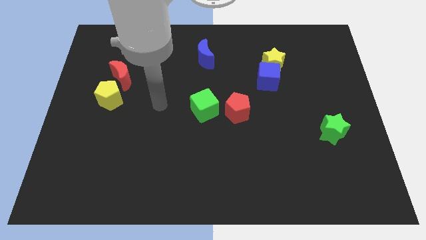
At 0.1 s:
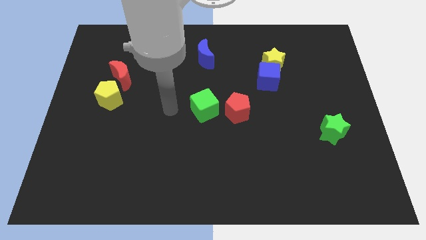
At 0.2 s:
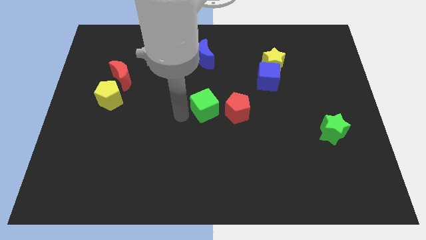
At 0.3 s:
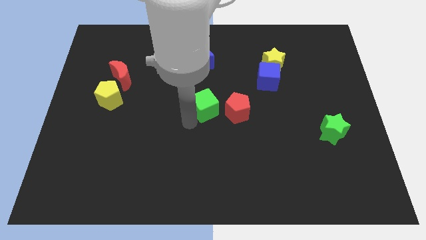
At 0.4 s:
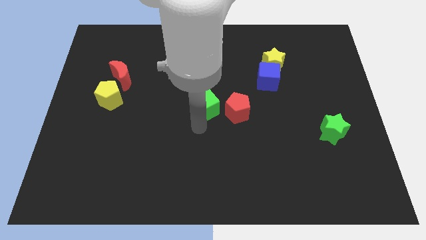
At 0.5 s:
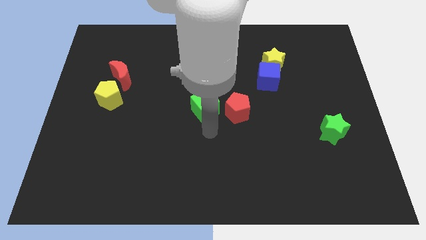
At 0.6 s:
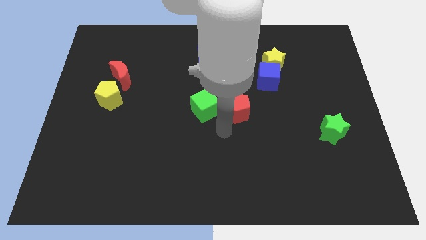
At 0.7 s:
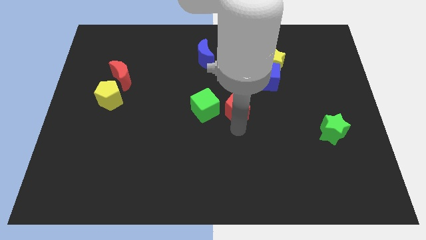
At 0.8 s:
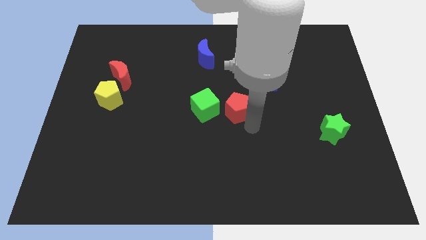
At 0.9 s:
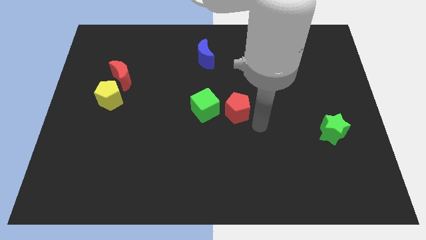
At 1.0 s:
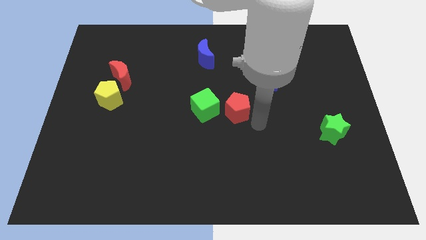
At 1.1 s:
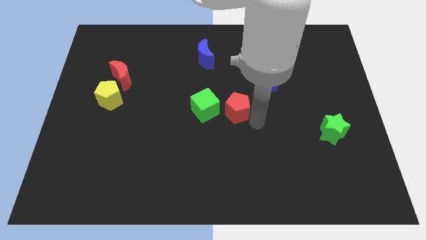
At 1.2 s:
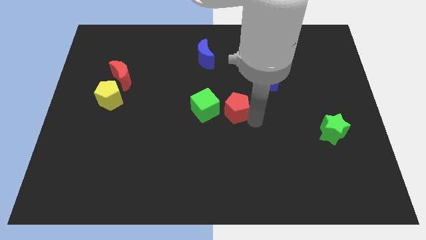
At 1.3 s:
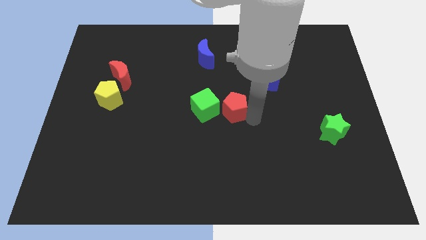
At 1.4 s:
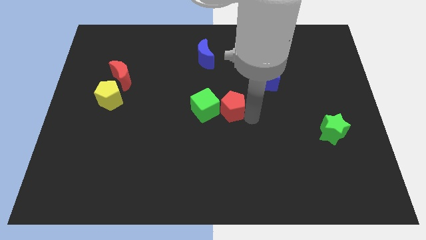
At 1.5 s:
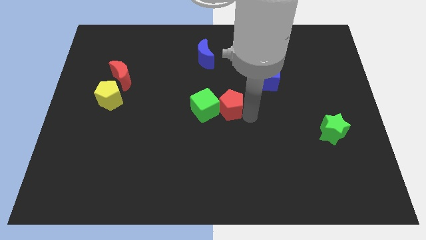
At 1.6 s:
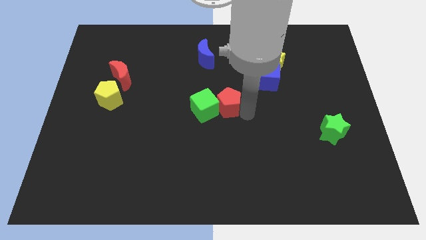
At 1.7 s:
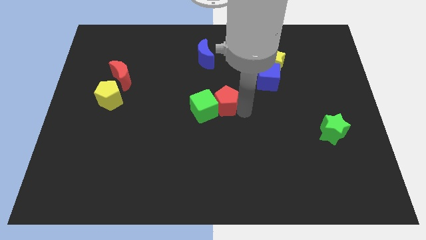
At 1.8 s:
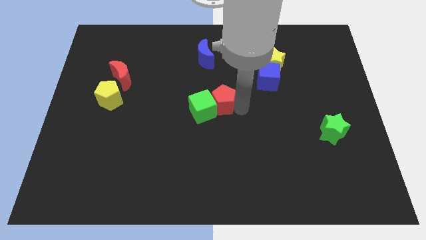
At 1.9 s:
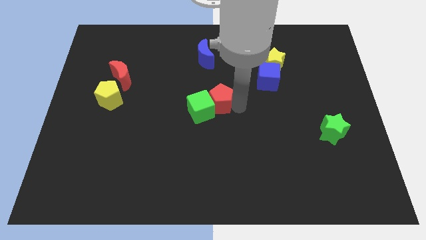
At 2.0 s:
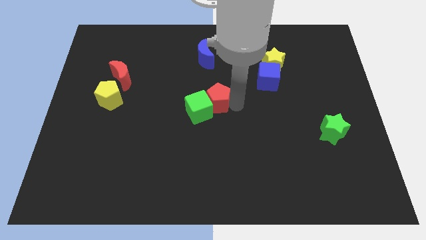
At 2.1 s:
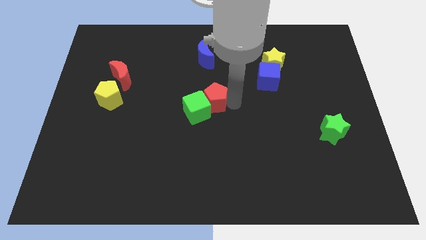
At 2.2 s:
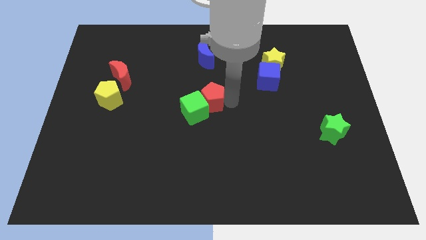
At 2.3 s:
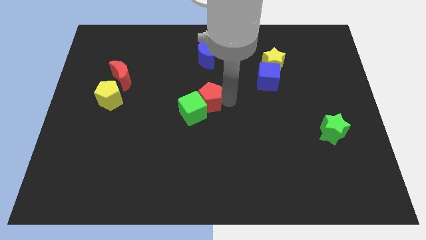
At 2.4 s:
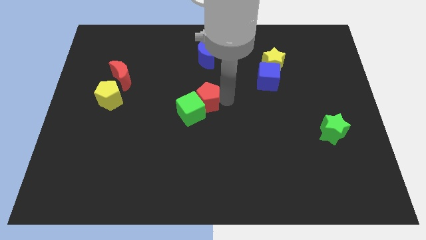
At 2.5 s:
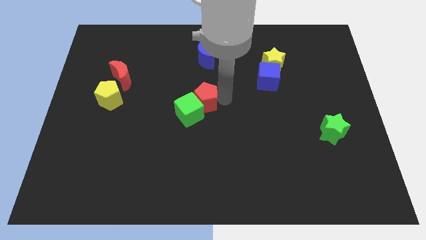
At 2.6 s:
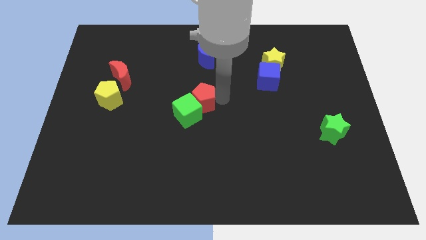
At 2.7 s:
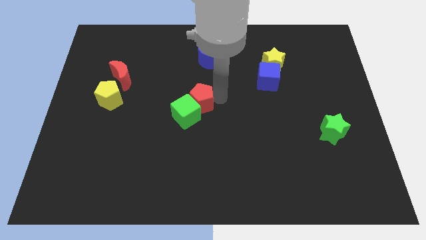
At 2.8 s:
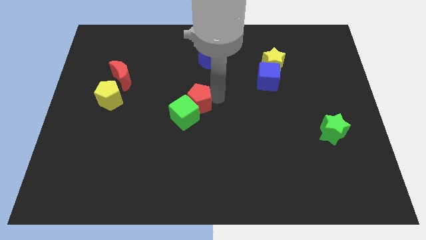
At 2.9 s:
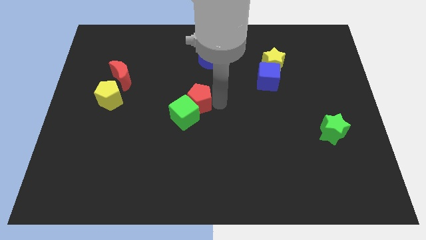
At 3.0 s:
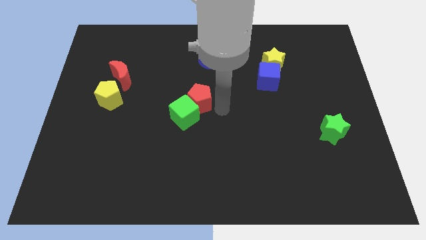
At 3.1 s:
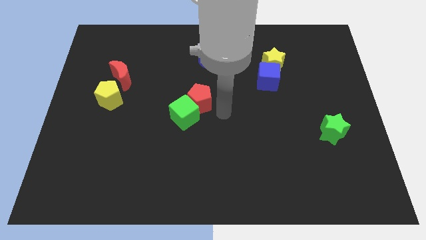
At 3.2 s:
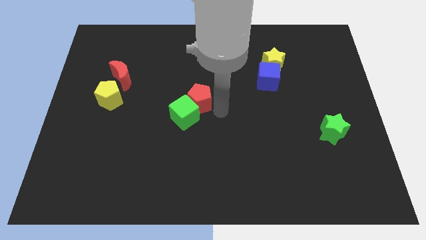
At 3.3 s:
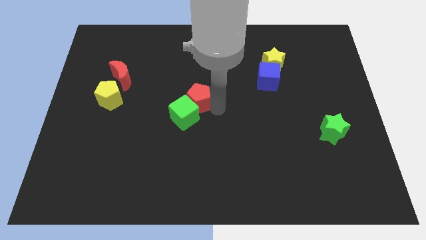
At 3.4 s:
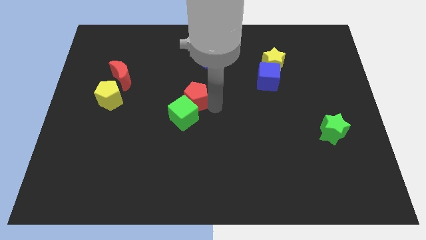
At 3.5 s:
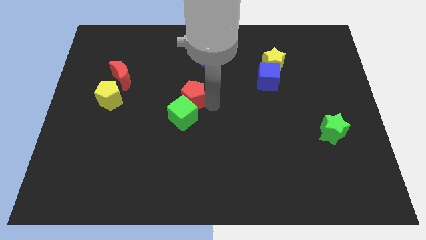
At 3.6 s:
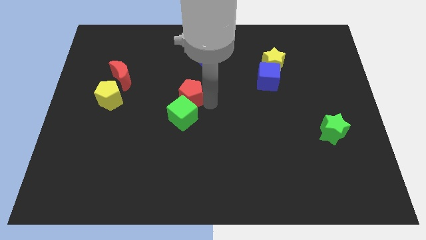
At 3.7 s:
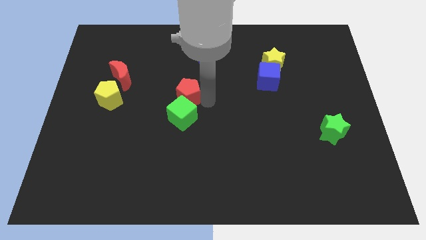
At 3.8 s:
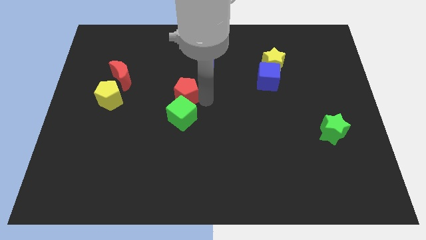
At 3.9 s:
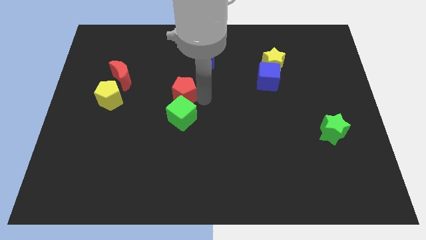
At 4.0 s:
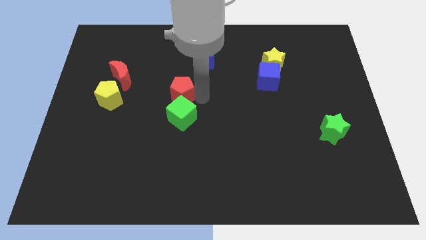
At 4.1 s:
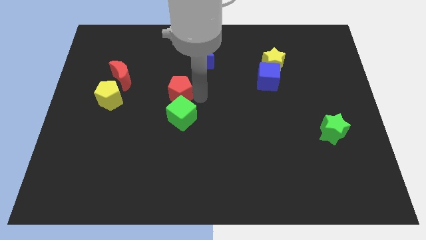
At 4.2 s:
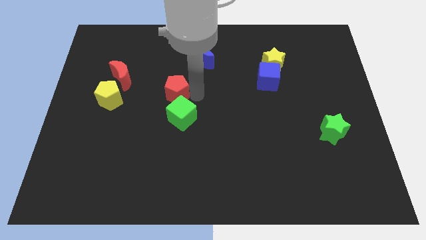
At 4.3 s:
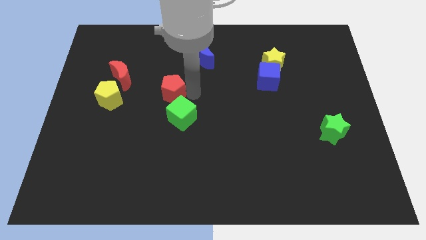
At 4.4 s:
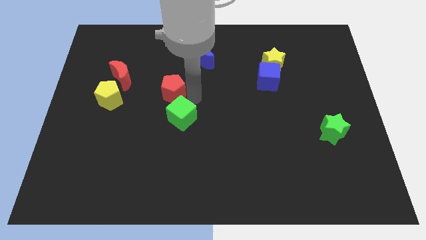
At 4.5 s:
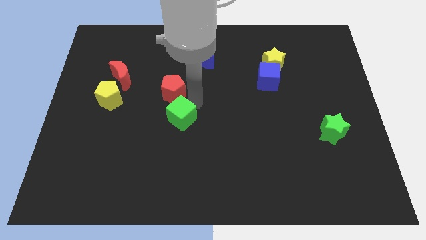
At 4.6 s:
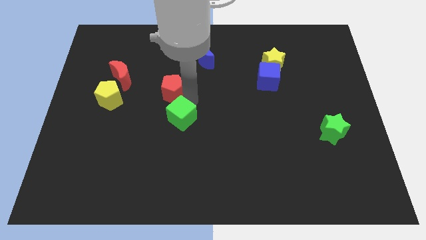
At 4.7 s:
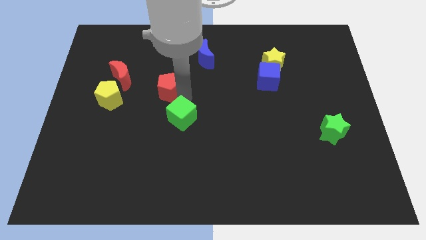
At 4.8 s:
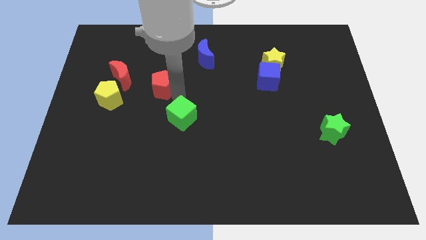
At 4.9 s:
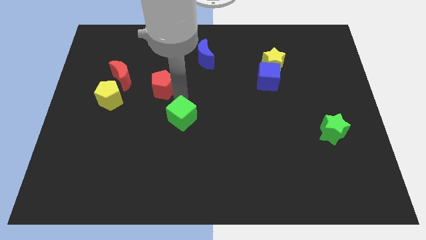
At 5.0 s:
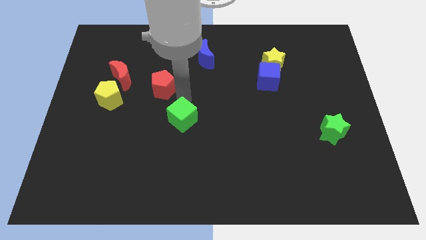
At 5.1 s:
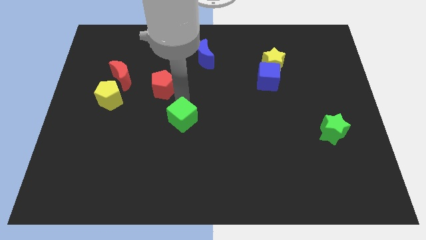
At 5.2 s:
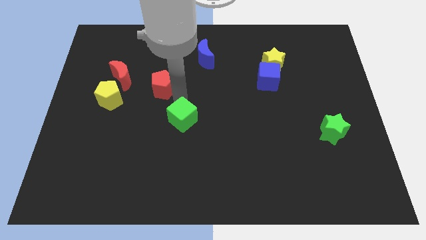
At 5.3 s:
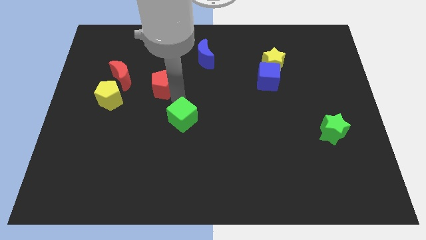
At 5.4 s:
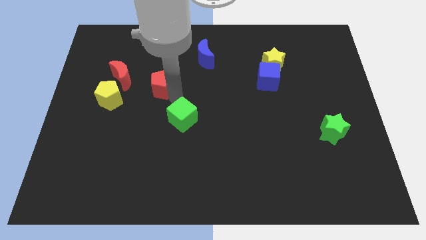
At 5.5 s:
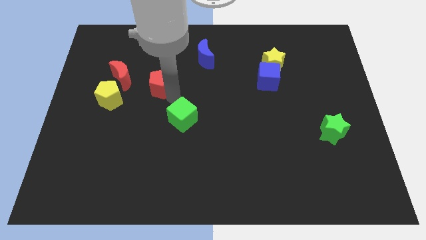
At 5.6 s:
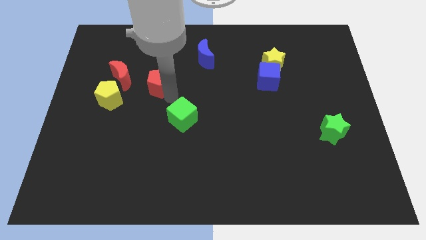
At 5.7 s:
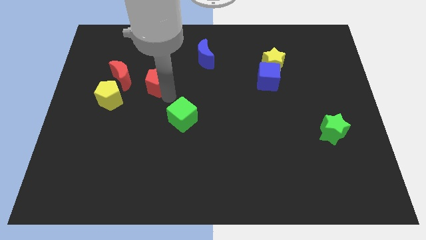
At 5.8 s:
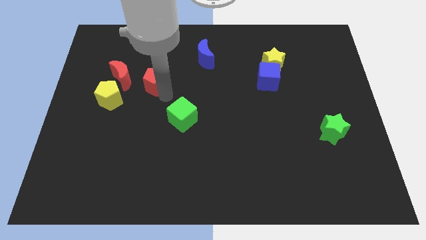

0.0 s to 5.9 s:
slide the red pentagon to the top right side of the yellow pentagon
